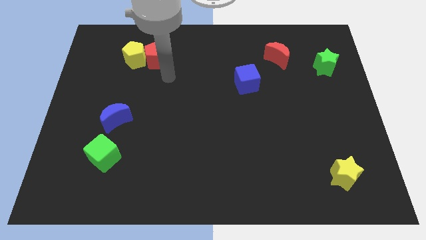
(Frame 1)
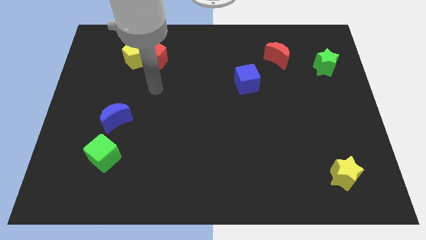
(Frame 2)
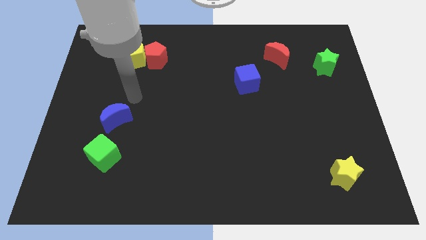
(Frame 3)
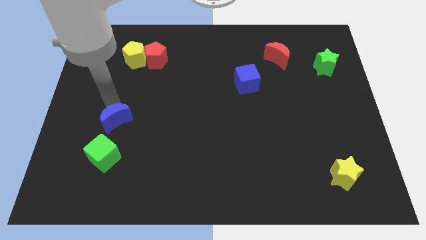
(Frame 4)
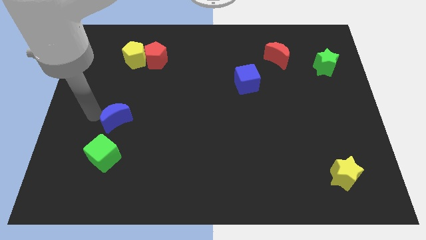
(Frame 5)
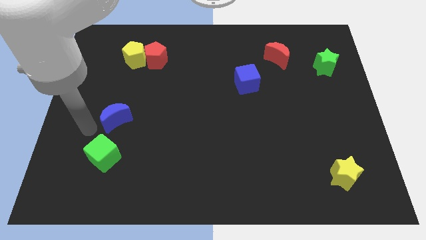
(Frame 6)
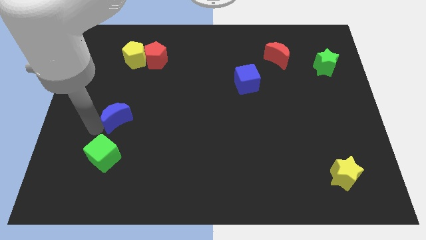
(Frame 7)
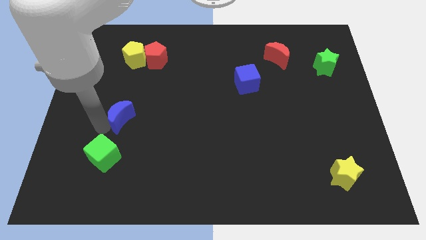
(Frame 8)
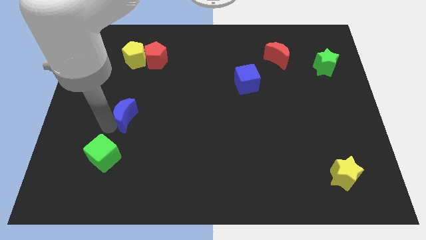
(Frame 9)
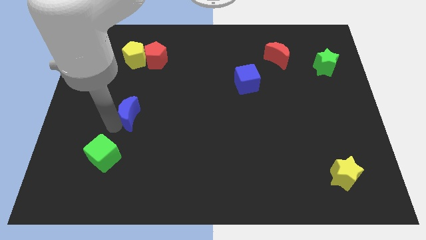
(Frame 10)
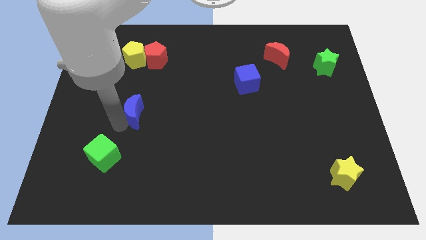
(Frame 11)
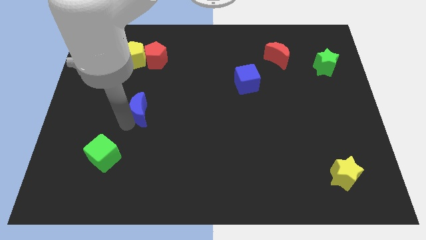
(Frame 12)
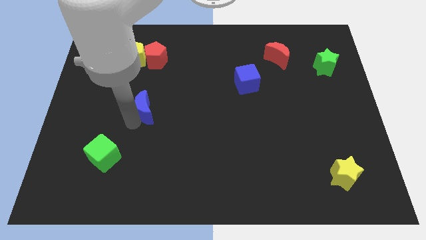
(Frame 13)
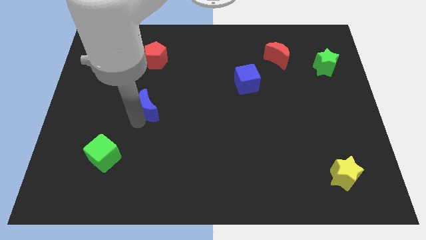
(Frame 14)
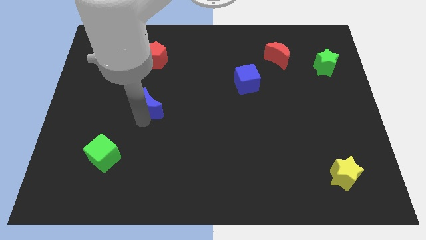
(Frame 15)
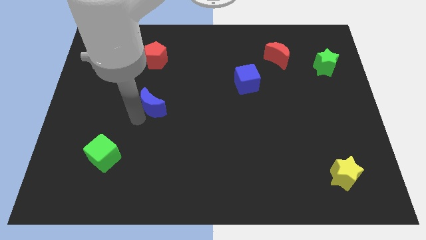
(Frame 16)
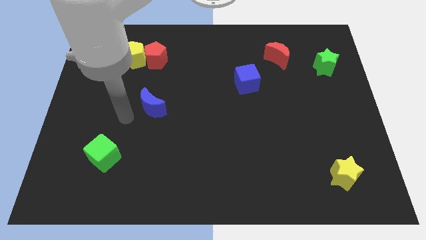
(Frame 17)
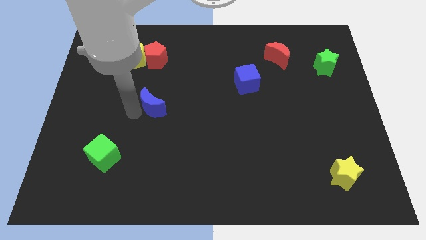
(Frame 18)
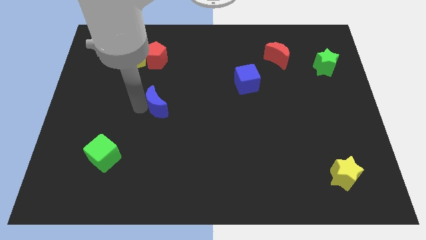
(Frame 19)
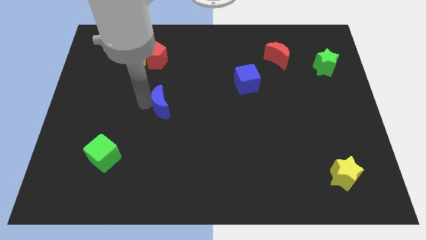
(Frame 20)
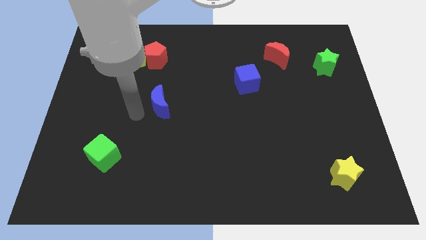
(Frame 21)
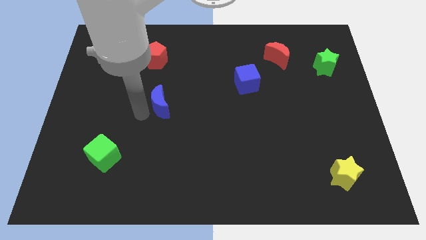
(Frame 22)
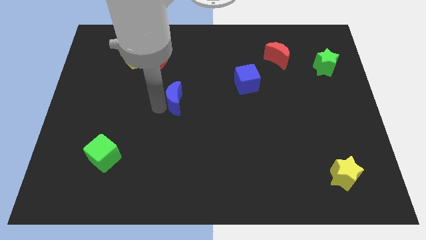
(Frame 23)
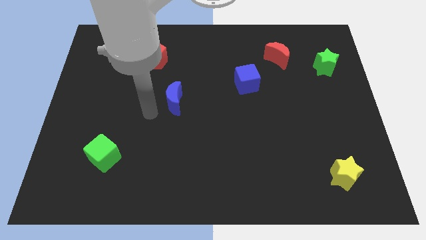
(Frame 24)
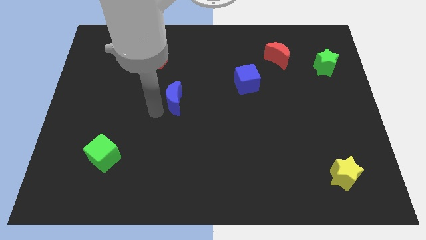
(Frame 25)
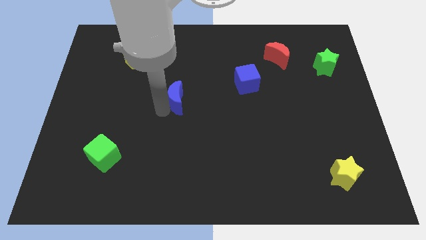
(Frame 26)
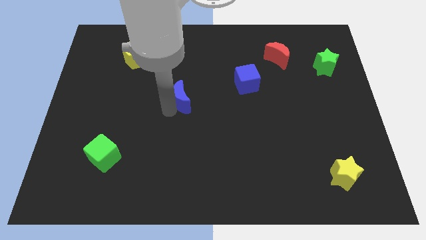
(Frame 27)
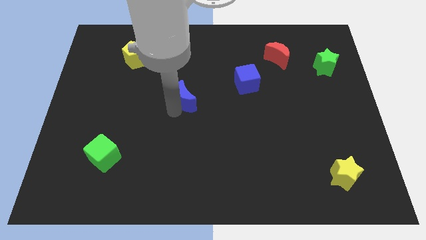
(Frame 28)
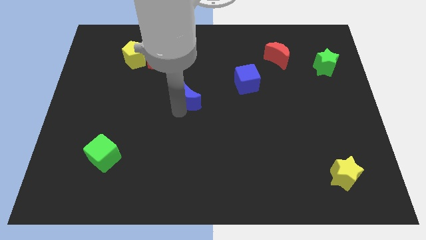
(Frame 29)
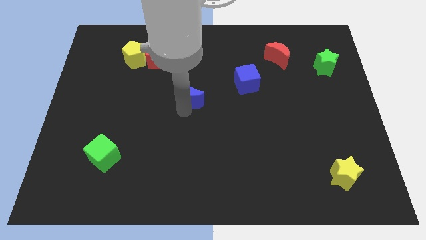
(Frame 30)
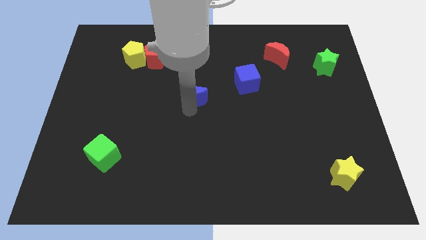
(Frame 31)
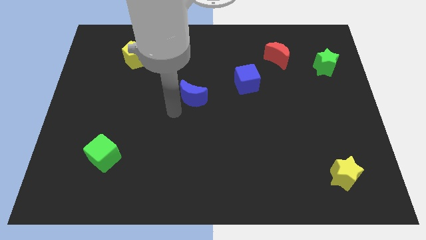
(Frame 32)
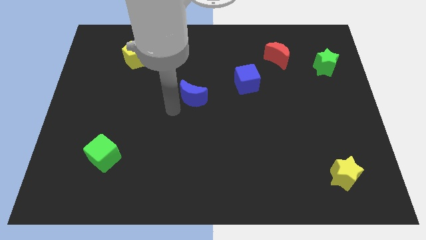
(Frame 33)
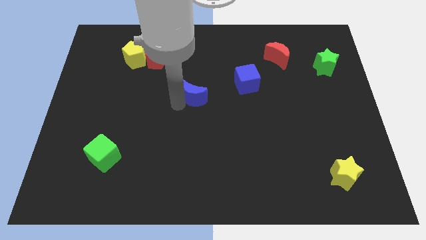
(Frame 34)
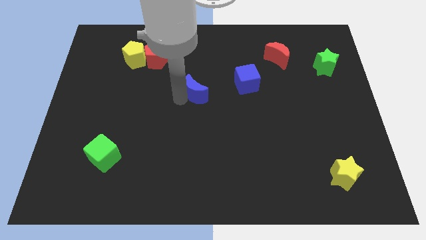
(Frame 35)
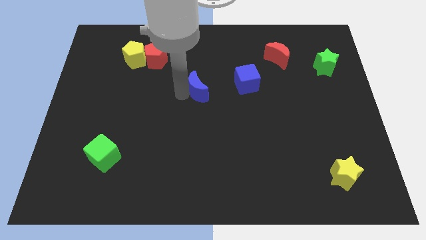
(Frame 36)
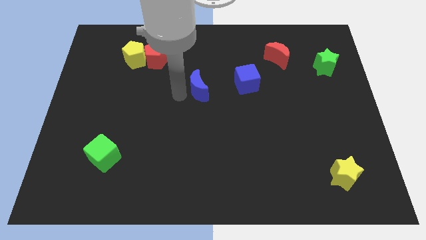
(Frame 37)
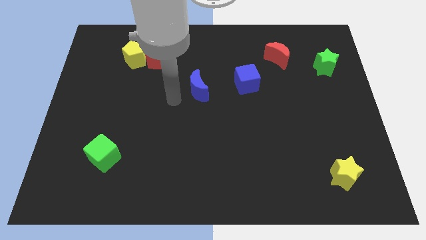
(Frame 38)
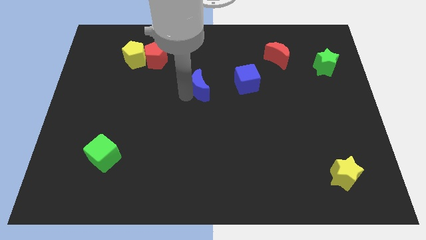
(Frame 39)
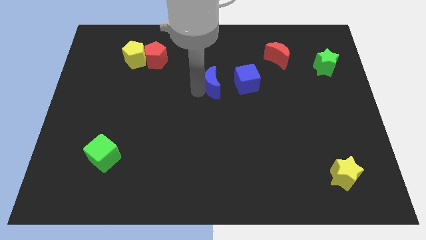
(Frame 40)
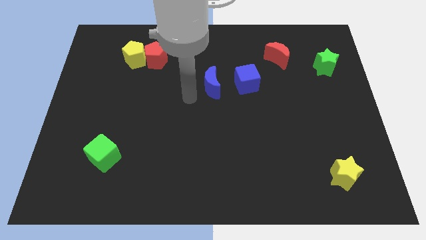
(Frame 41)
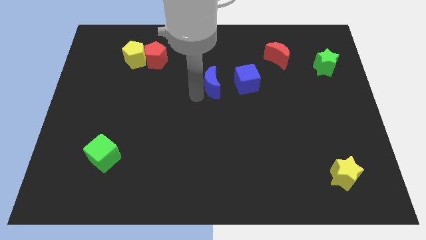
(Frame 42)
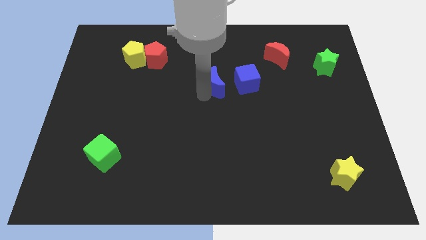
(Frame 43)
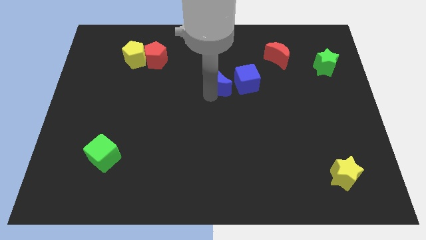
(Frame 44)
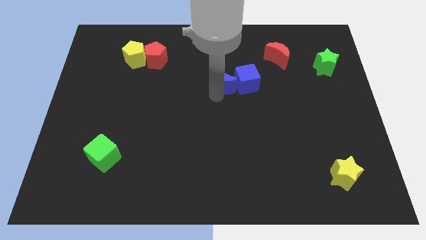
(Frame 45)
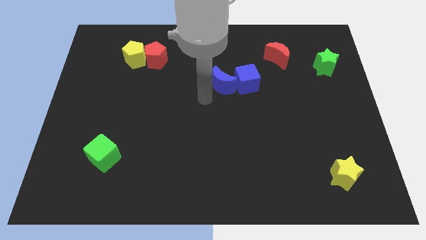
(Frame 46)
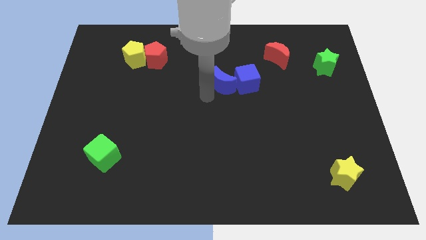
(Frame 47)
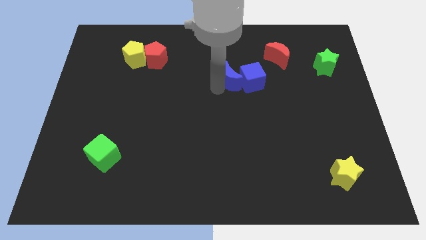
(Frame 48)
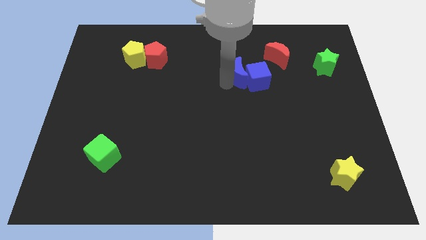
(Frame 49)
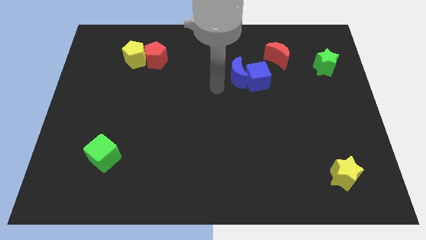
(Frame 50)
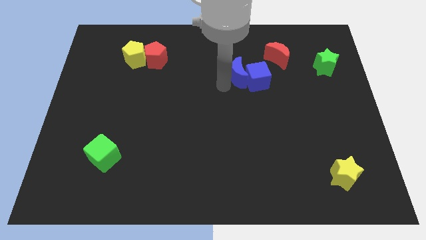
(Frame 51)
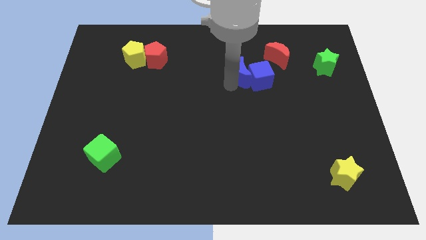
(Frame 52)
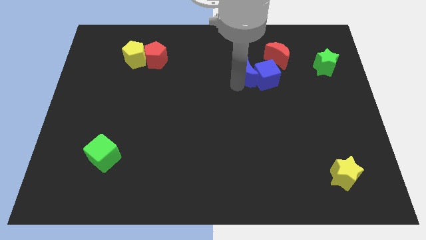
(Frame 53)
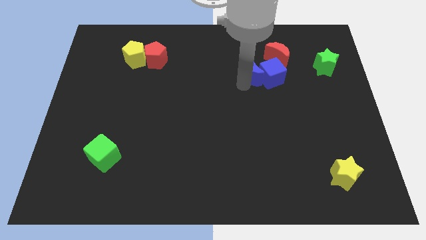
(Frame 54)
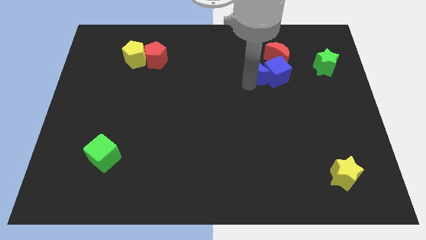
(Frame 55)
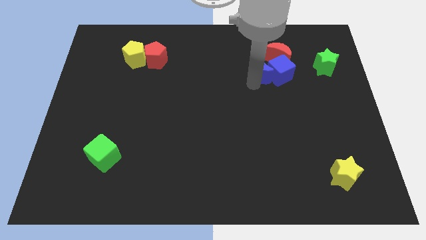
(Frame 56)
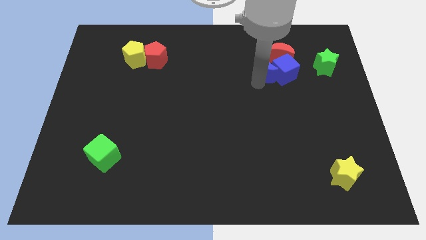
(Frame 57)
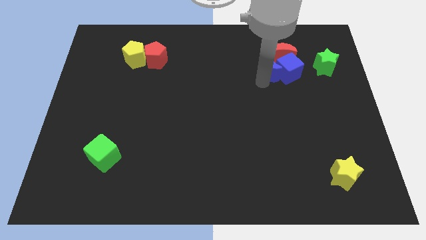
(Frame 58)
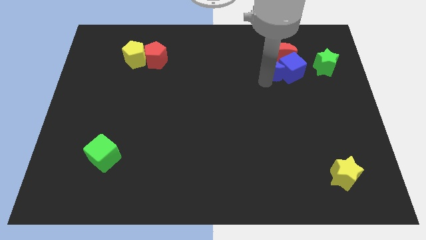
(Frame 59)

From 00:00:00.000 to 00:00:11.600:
slide the blue moon next to the red moon

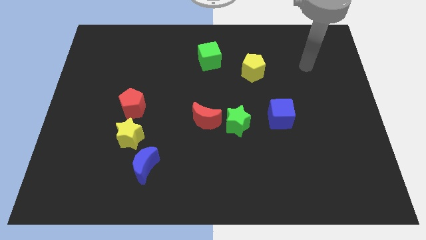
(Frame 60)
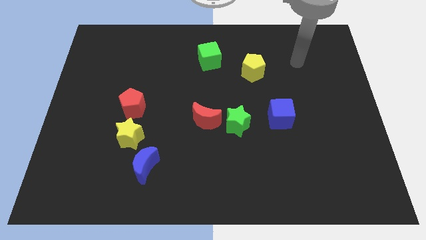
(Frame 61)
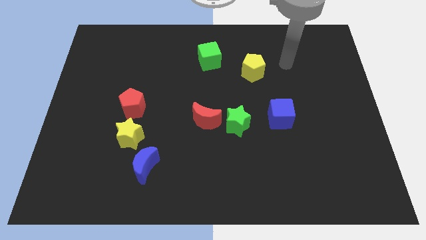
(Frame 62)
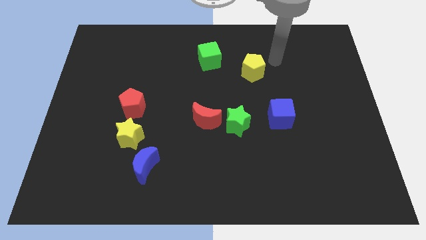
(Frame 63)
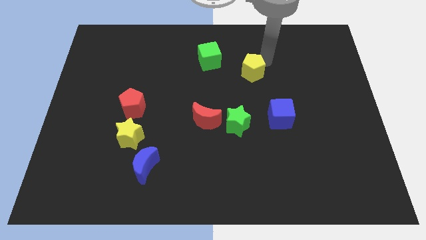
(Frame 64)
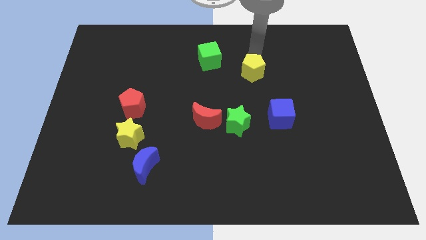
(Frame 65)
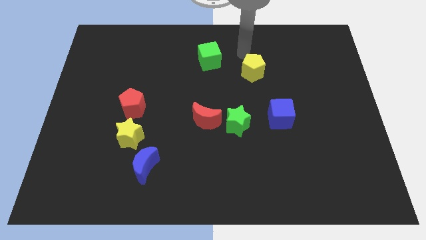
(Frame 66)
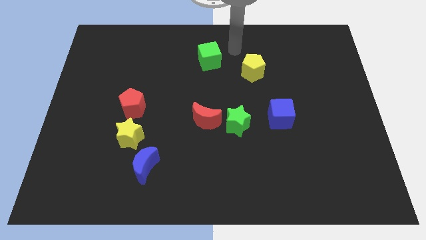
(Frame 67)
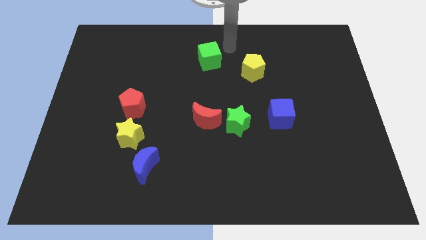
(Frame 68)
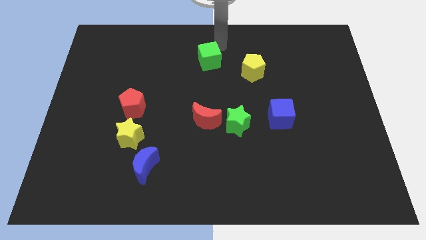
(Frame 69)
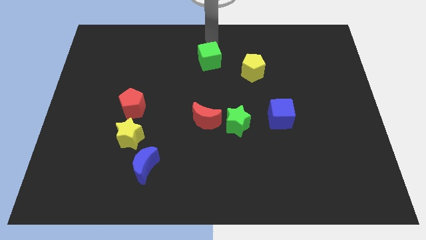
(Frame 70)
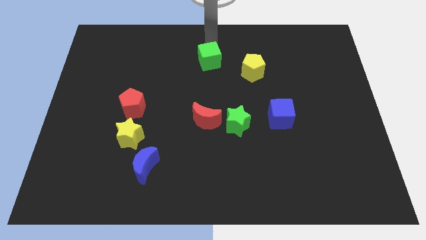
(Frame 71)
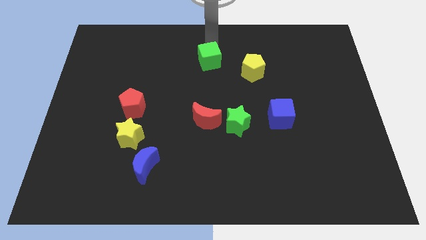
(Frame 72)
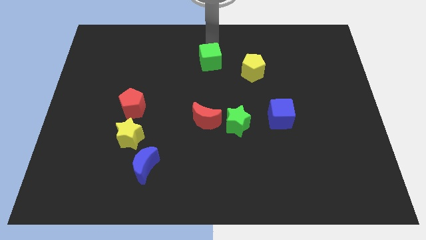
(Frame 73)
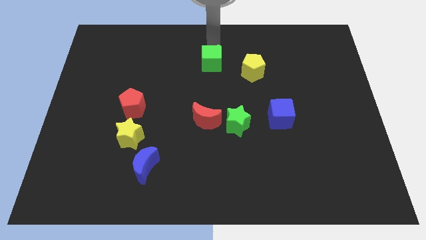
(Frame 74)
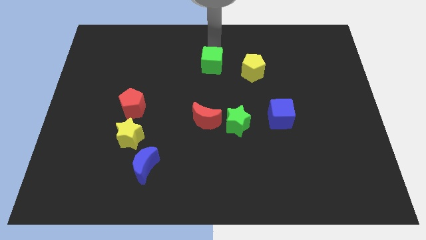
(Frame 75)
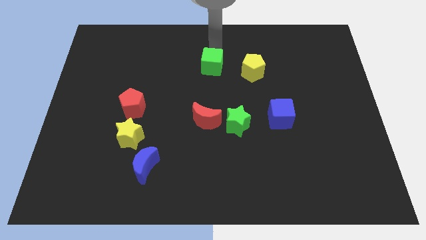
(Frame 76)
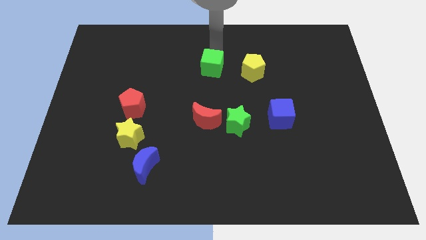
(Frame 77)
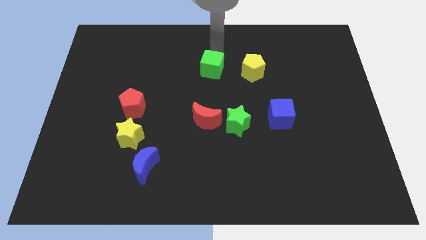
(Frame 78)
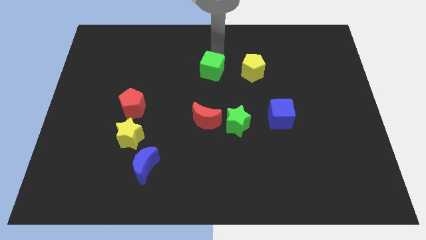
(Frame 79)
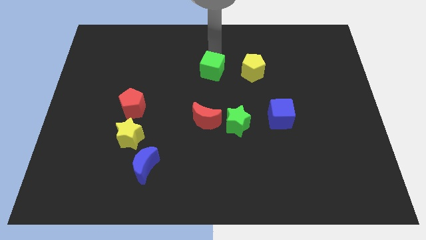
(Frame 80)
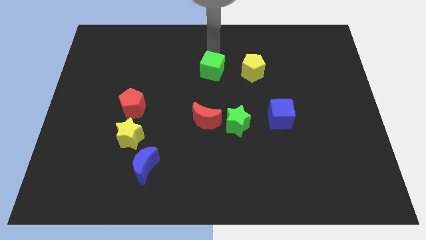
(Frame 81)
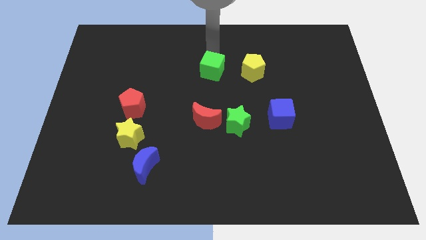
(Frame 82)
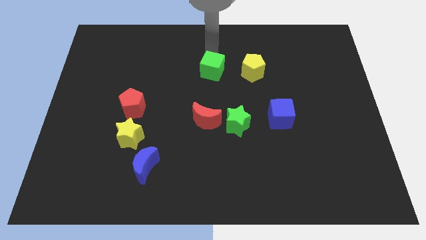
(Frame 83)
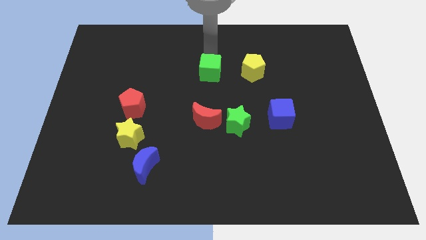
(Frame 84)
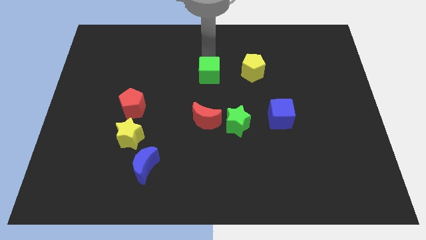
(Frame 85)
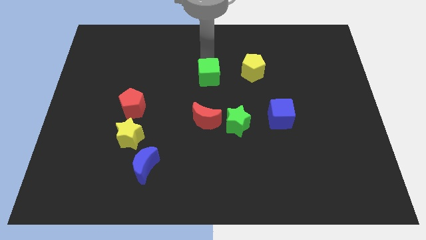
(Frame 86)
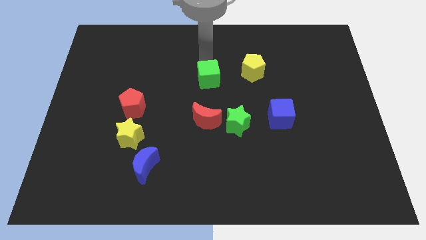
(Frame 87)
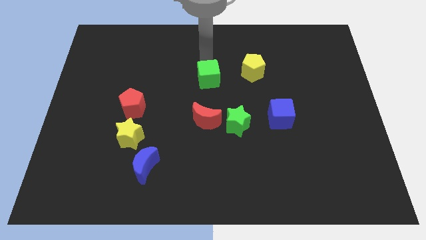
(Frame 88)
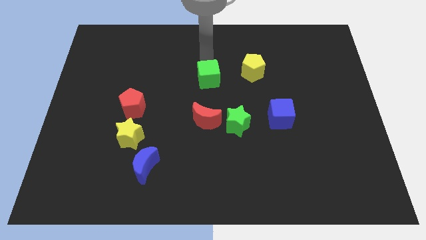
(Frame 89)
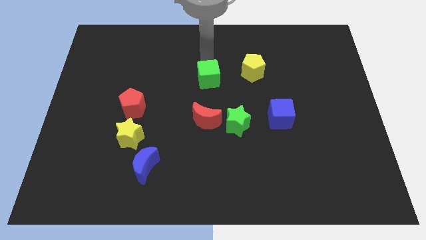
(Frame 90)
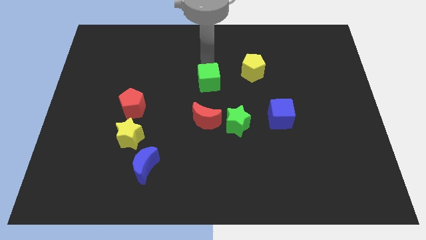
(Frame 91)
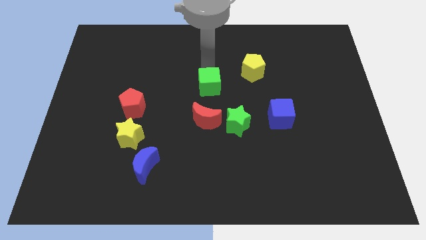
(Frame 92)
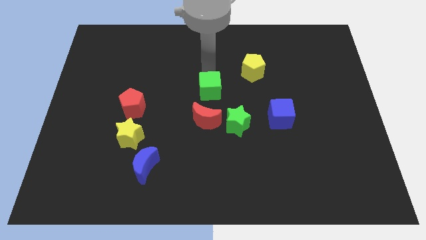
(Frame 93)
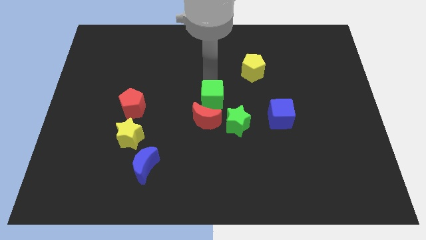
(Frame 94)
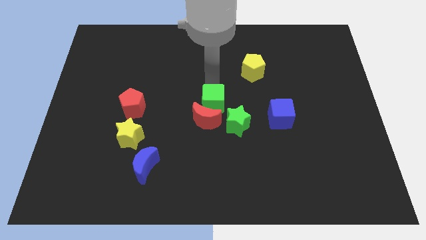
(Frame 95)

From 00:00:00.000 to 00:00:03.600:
put the green cube close to the red moon
